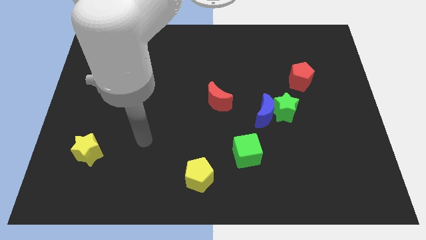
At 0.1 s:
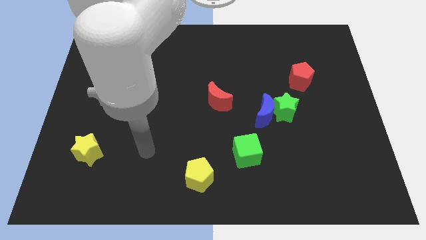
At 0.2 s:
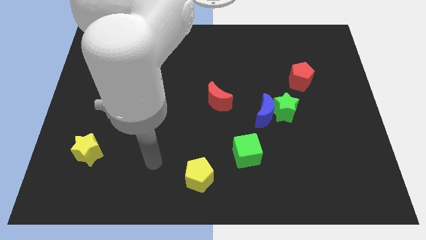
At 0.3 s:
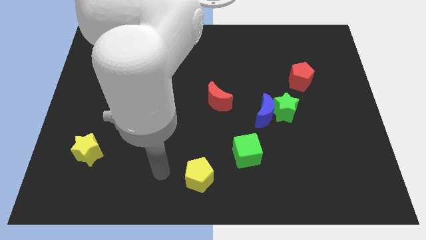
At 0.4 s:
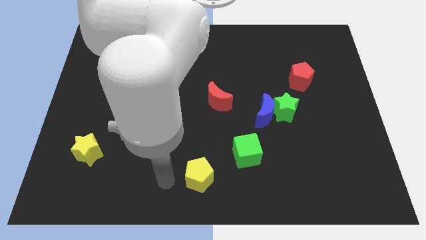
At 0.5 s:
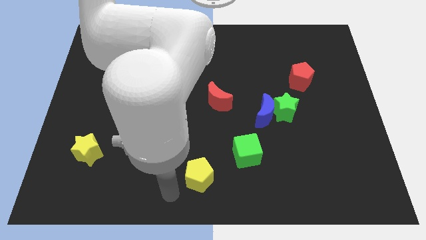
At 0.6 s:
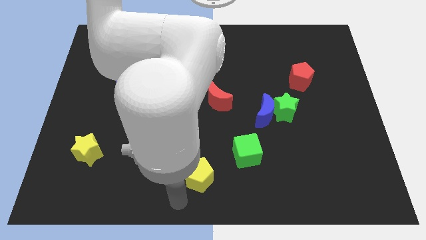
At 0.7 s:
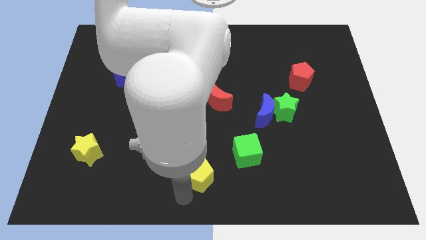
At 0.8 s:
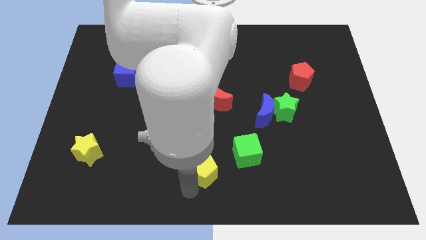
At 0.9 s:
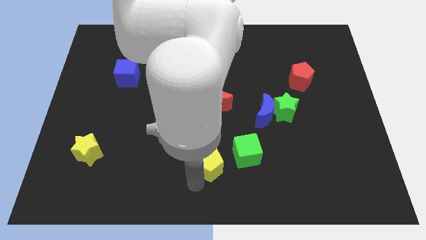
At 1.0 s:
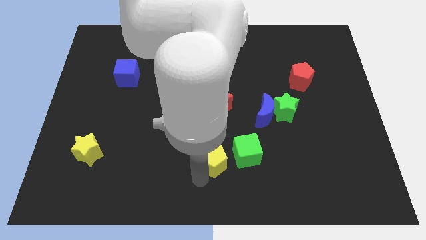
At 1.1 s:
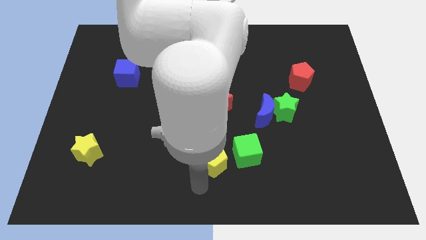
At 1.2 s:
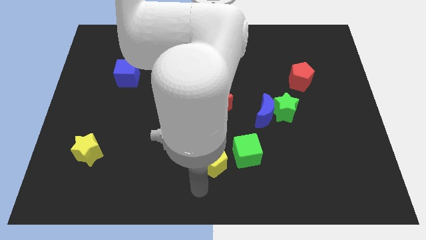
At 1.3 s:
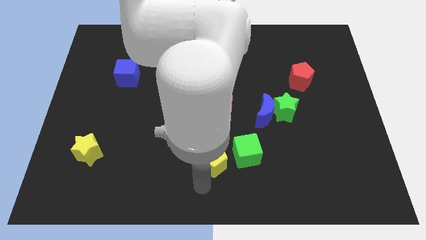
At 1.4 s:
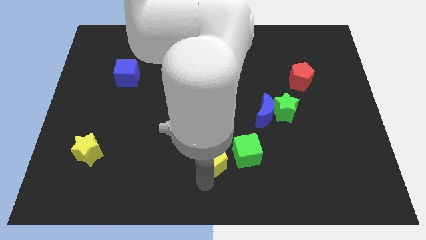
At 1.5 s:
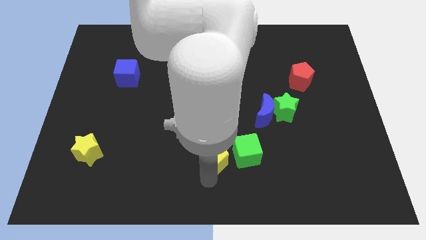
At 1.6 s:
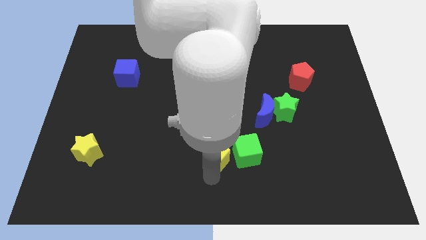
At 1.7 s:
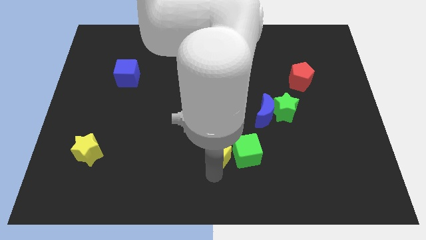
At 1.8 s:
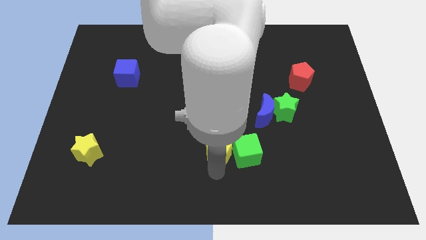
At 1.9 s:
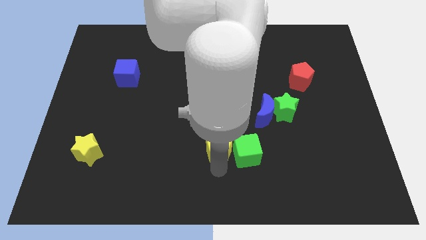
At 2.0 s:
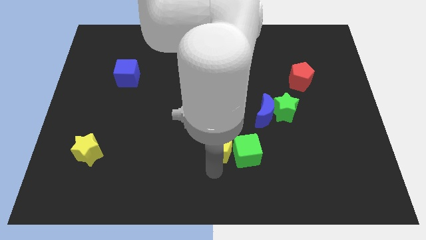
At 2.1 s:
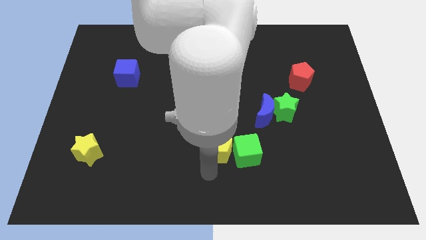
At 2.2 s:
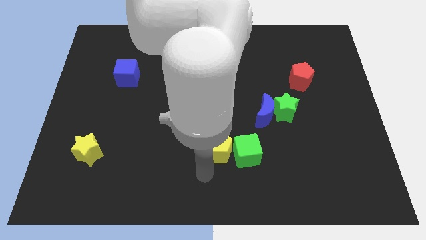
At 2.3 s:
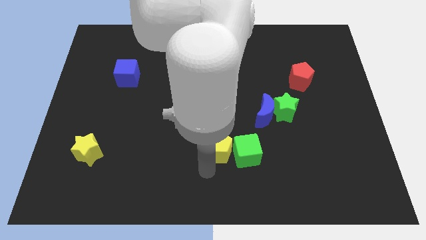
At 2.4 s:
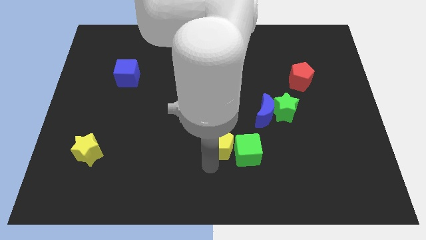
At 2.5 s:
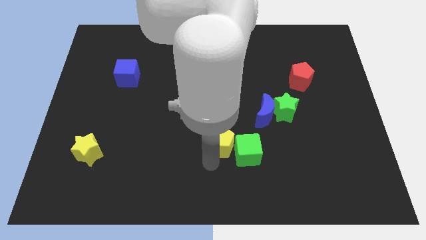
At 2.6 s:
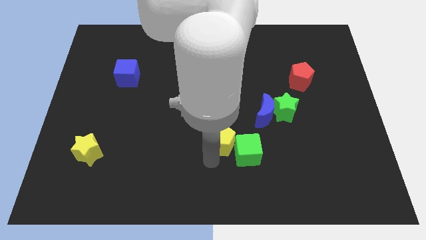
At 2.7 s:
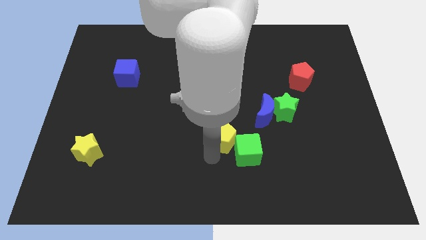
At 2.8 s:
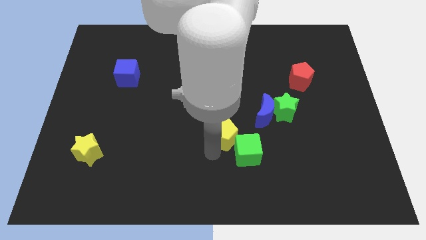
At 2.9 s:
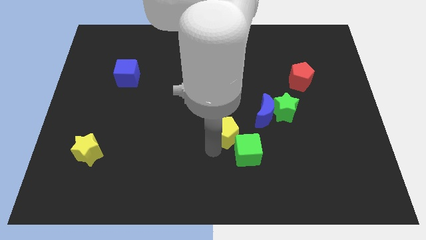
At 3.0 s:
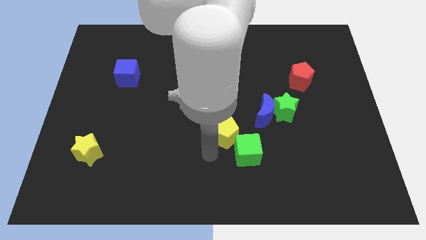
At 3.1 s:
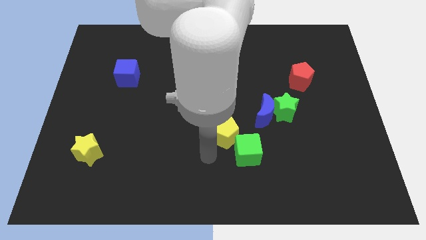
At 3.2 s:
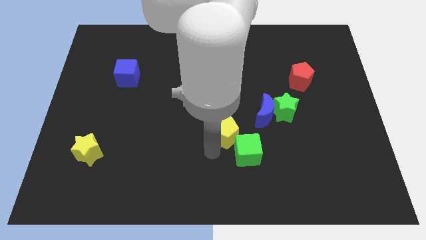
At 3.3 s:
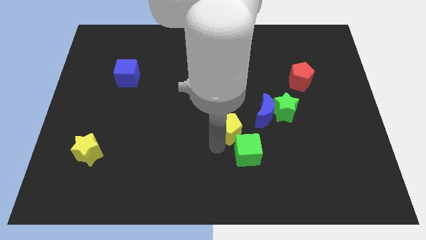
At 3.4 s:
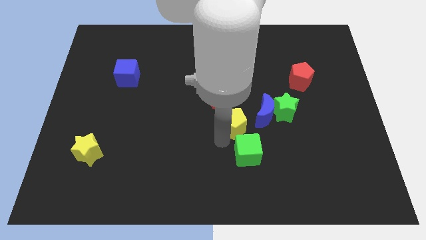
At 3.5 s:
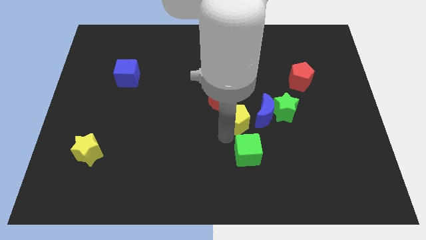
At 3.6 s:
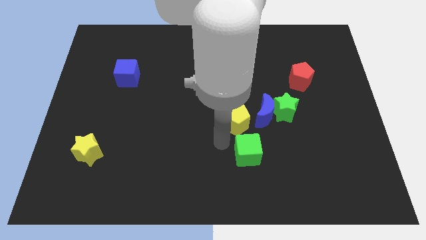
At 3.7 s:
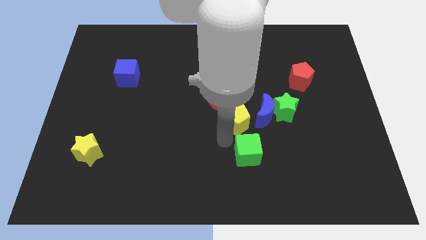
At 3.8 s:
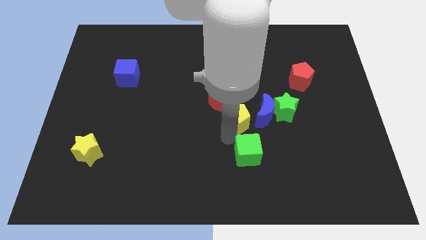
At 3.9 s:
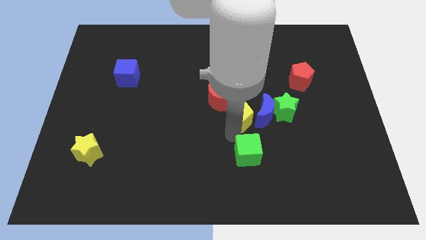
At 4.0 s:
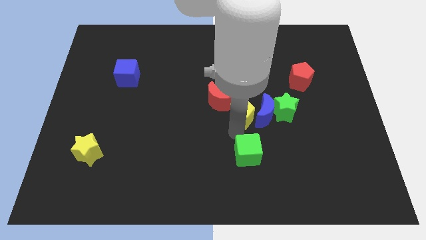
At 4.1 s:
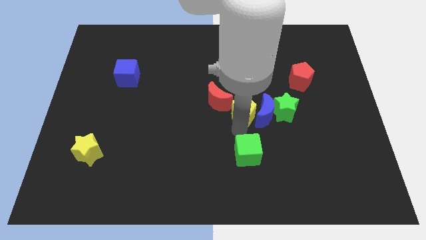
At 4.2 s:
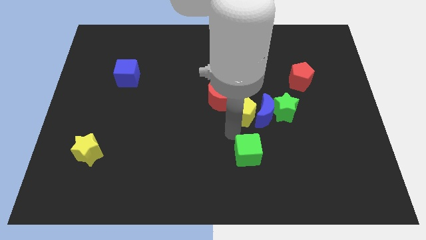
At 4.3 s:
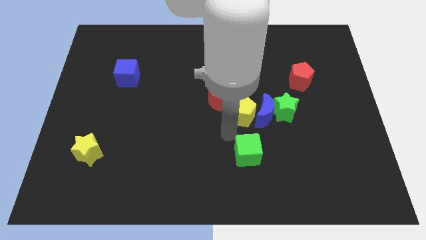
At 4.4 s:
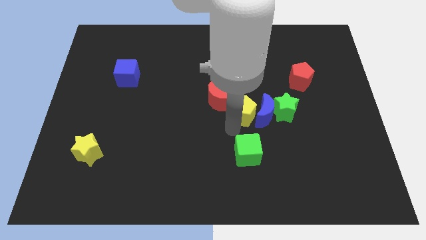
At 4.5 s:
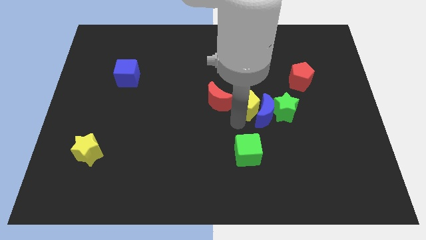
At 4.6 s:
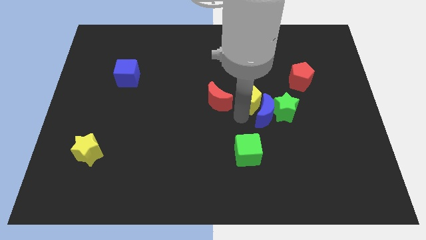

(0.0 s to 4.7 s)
push the yellow pentagon diagonally up and to the left of the green star

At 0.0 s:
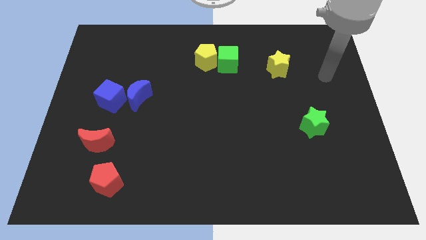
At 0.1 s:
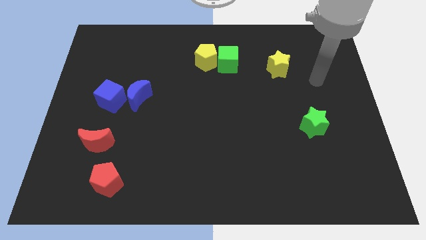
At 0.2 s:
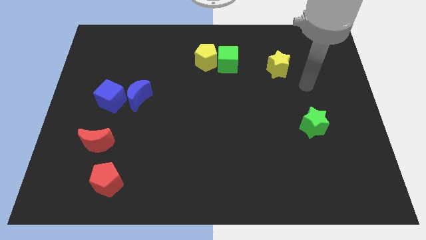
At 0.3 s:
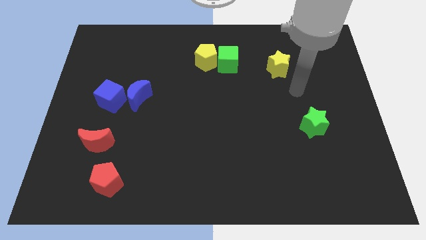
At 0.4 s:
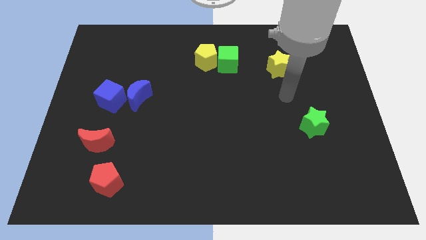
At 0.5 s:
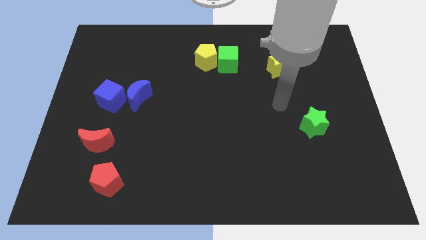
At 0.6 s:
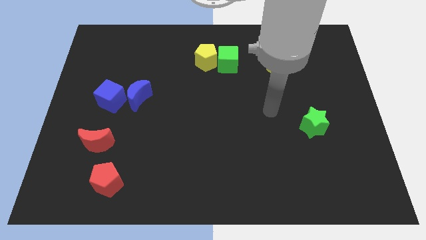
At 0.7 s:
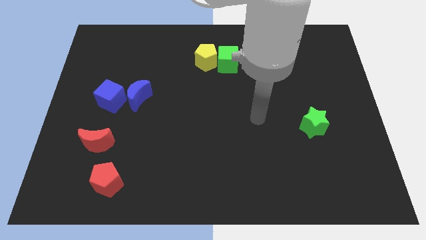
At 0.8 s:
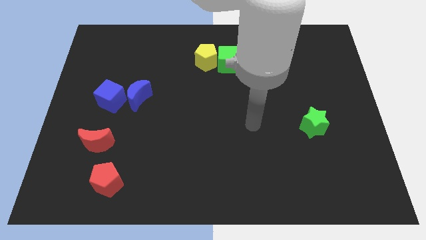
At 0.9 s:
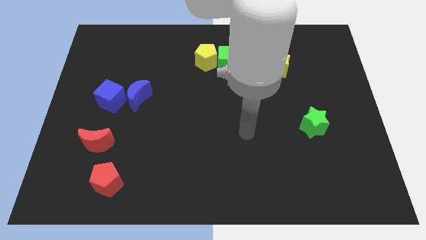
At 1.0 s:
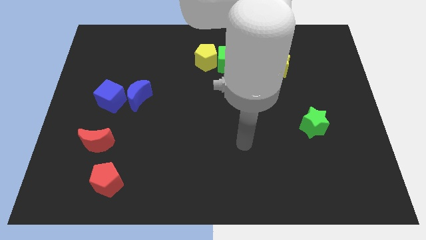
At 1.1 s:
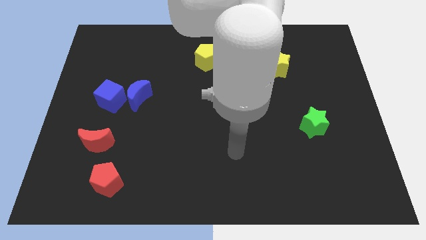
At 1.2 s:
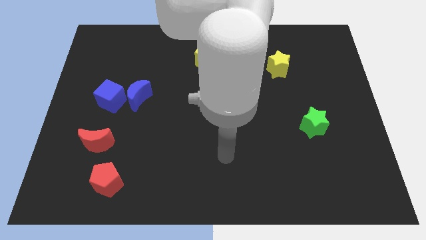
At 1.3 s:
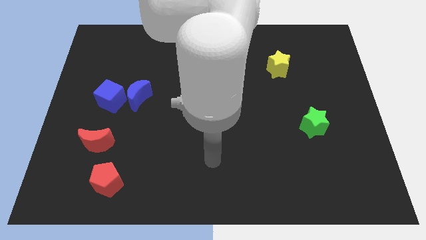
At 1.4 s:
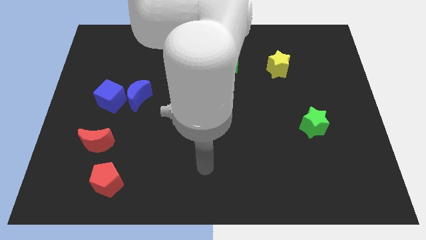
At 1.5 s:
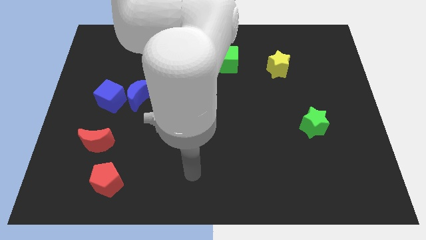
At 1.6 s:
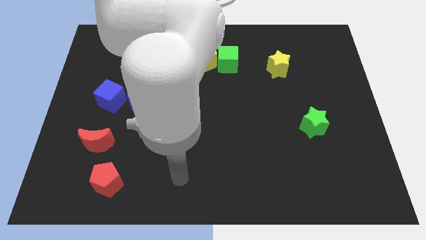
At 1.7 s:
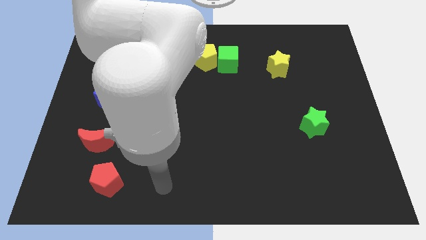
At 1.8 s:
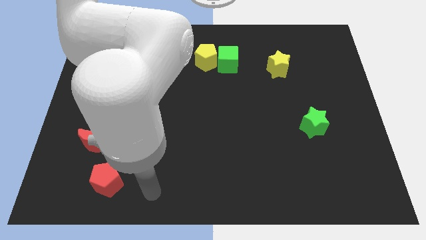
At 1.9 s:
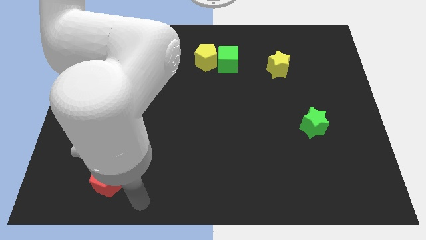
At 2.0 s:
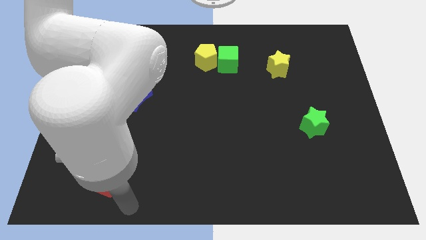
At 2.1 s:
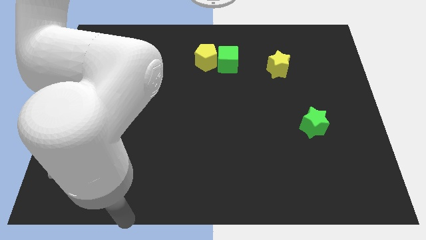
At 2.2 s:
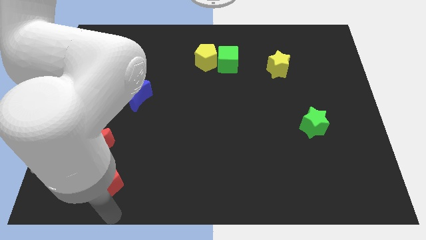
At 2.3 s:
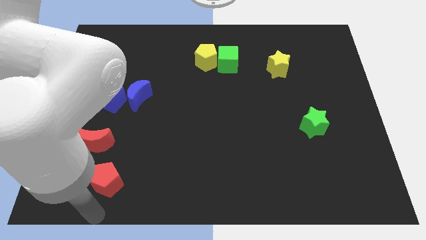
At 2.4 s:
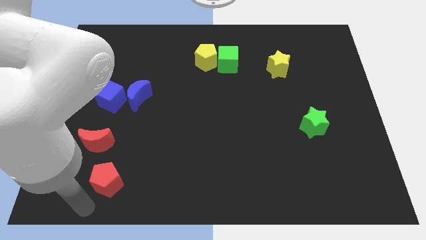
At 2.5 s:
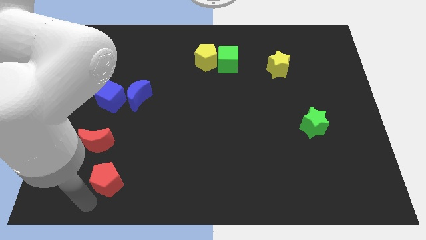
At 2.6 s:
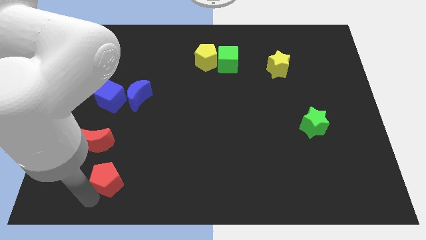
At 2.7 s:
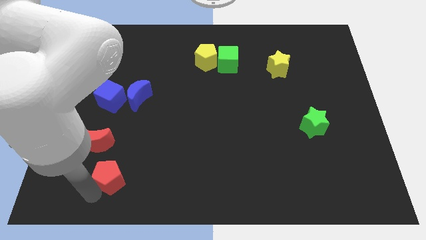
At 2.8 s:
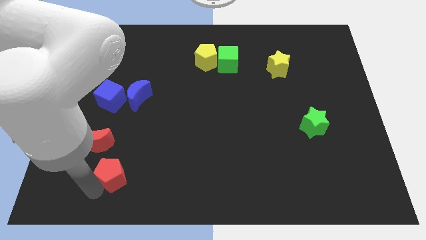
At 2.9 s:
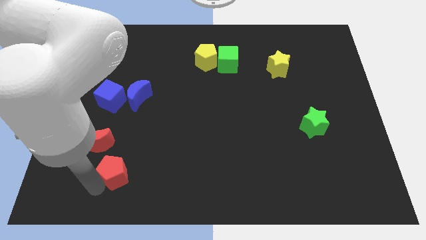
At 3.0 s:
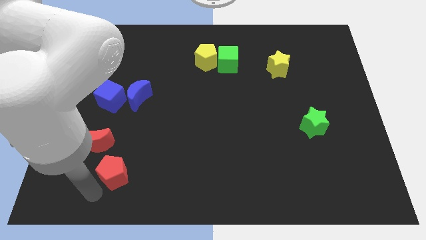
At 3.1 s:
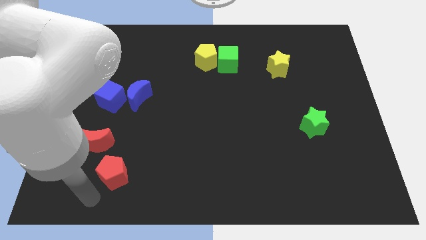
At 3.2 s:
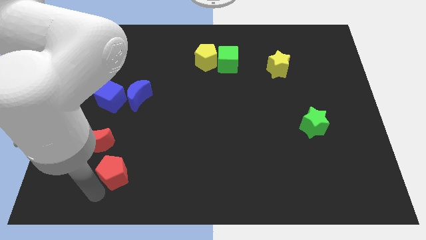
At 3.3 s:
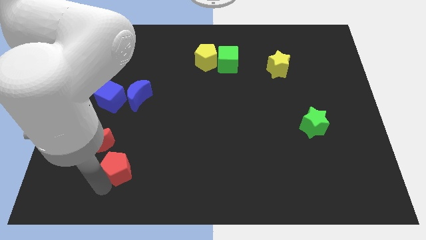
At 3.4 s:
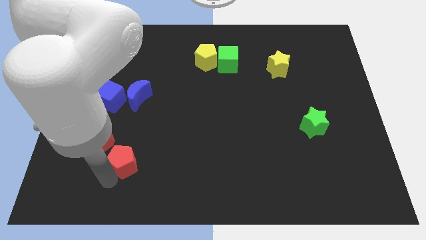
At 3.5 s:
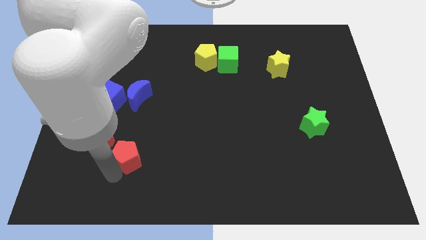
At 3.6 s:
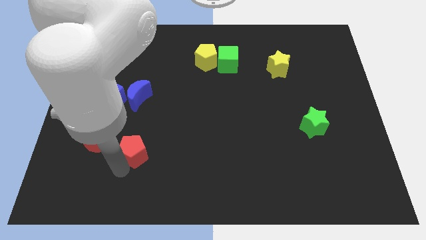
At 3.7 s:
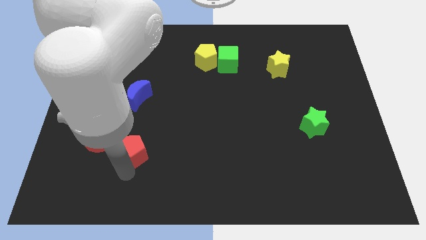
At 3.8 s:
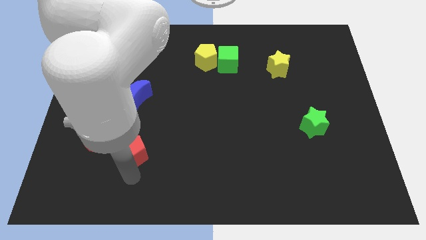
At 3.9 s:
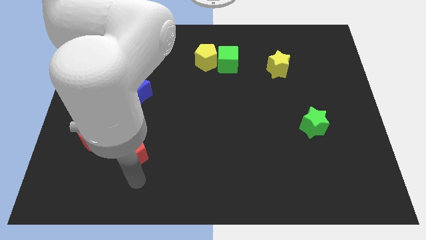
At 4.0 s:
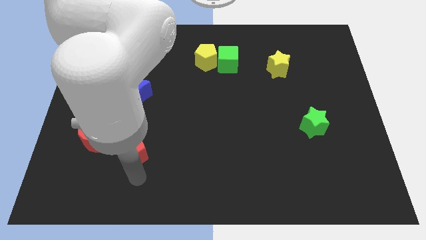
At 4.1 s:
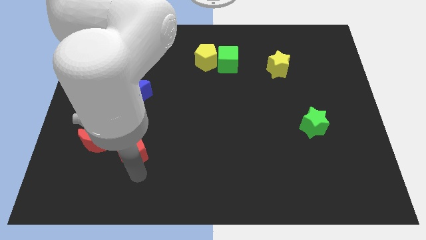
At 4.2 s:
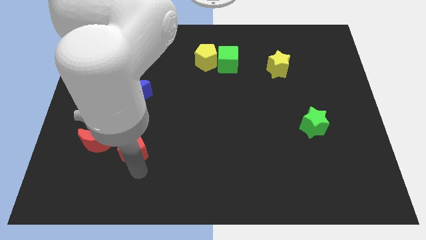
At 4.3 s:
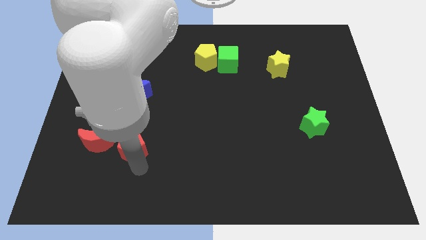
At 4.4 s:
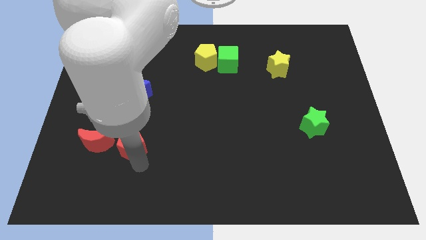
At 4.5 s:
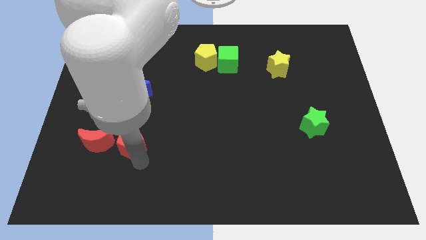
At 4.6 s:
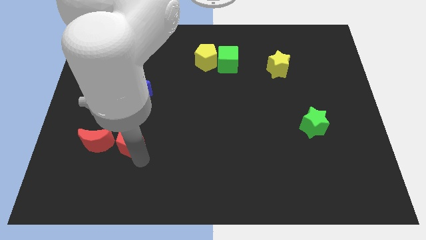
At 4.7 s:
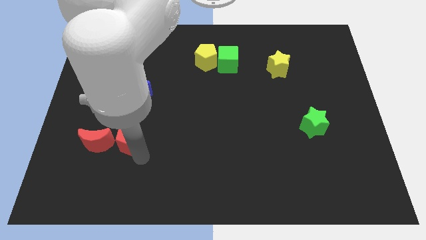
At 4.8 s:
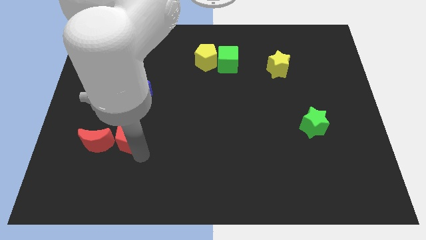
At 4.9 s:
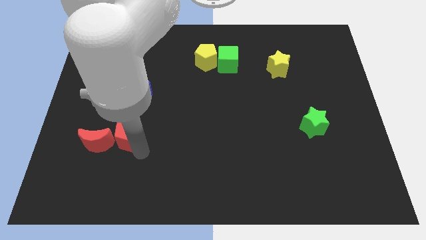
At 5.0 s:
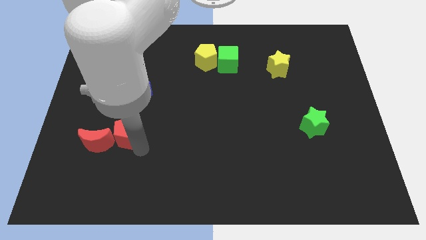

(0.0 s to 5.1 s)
push the red pentagon diagonally down and to the right of the blue cube
